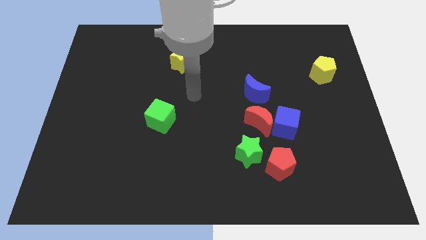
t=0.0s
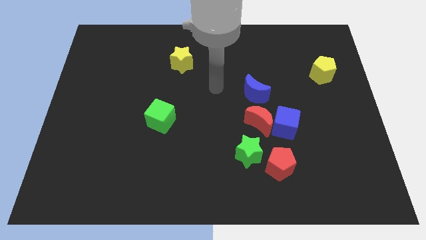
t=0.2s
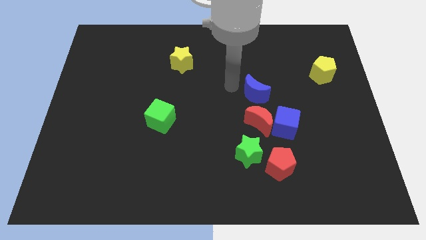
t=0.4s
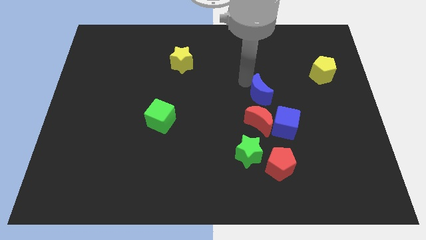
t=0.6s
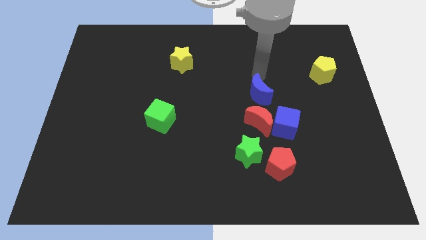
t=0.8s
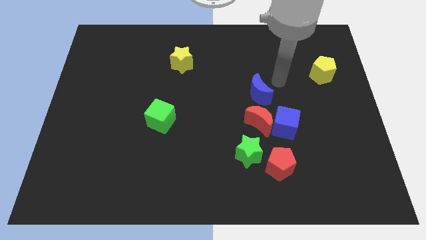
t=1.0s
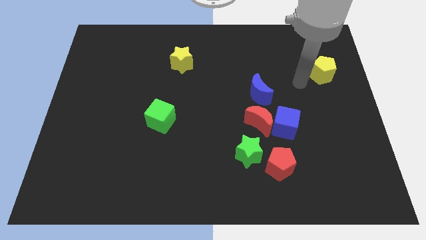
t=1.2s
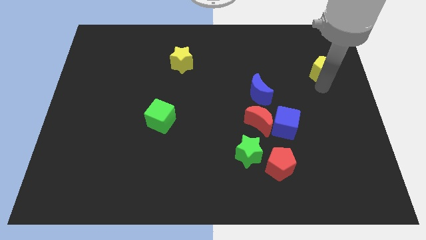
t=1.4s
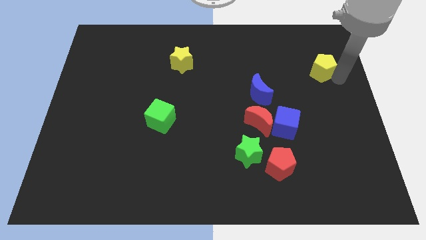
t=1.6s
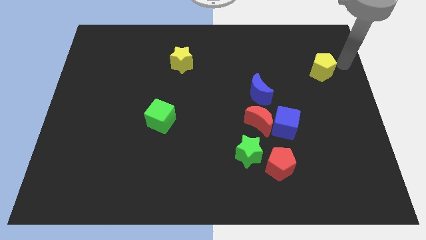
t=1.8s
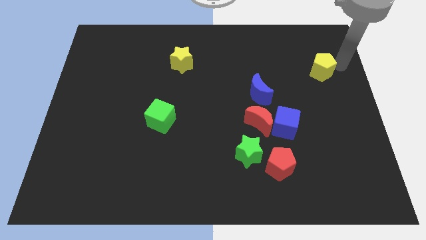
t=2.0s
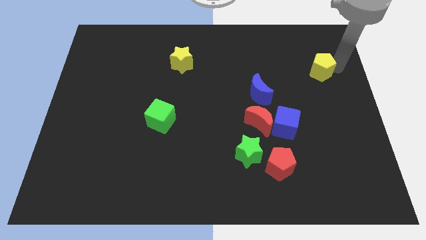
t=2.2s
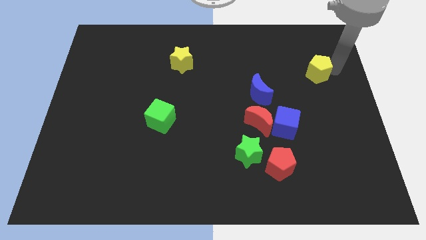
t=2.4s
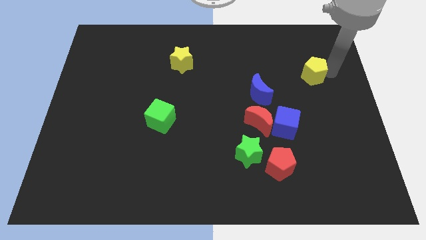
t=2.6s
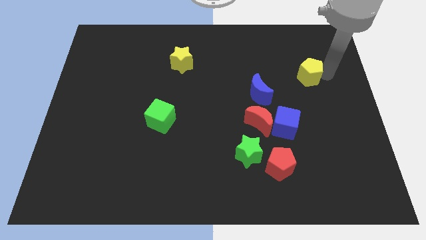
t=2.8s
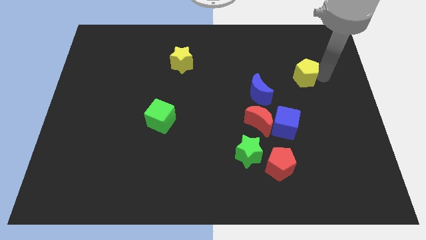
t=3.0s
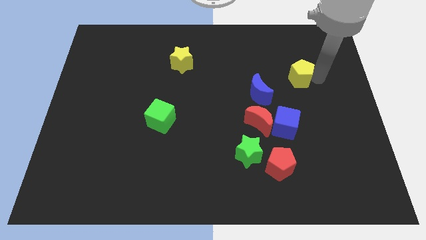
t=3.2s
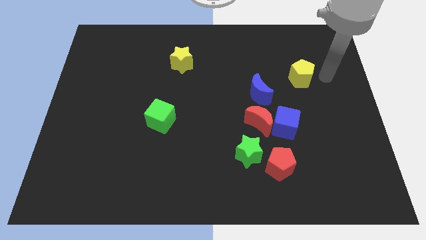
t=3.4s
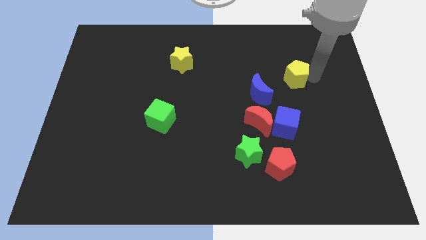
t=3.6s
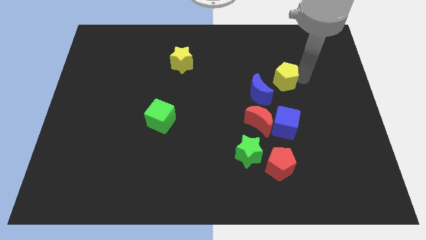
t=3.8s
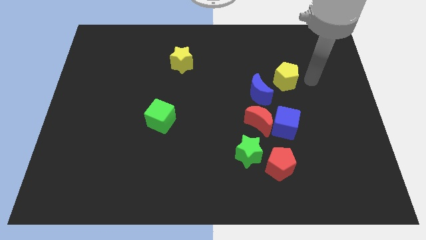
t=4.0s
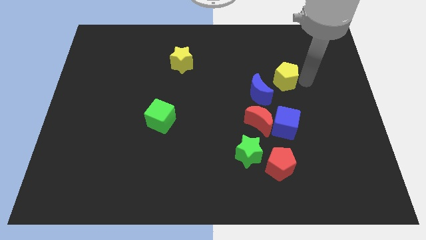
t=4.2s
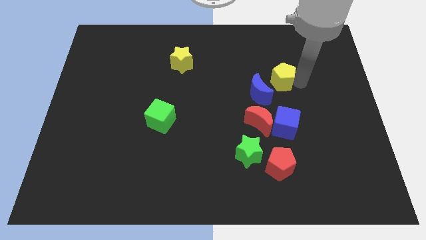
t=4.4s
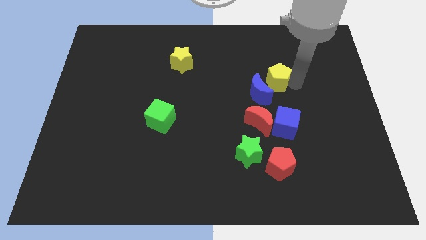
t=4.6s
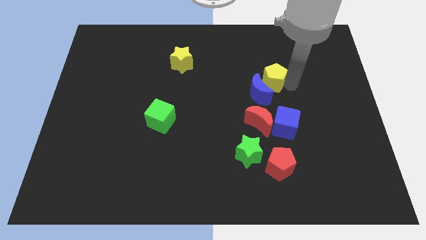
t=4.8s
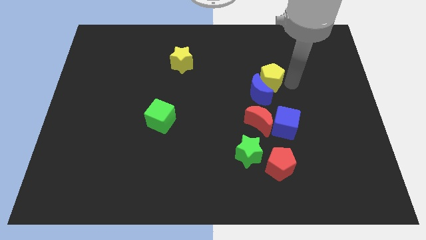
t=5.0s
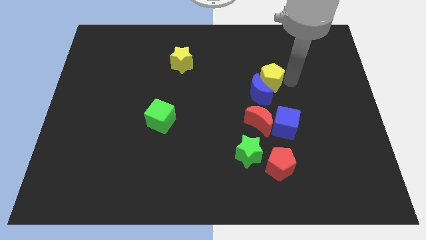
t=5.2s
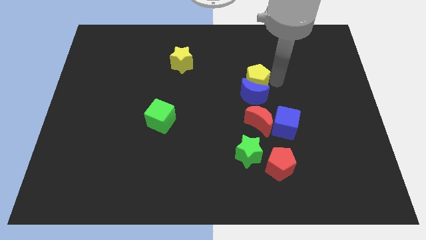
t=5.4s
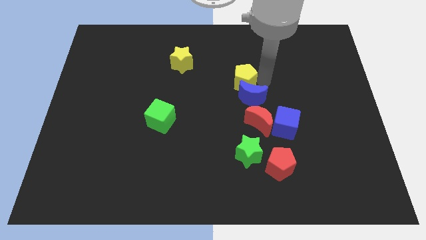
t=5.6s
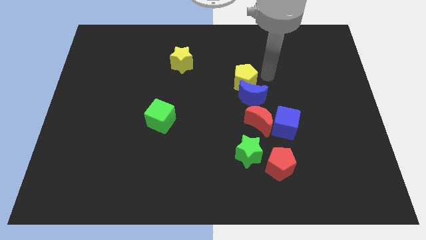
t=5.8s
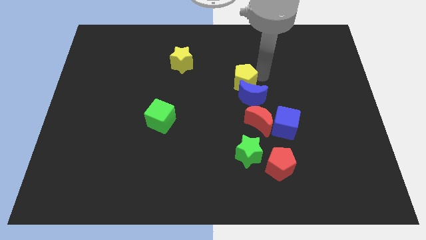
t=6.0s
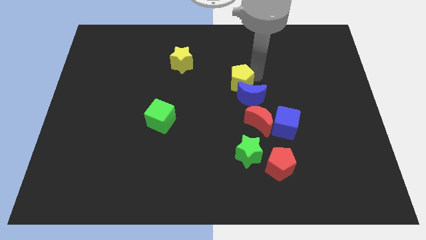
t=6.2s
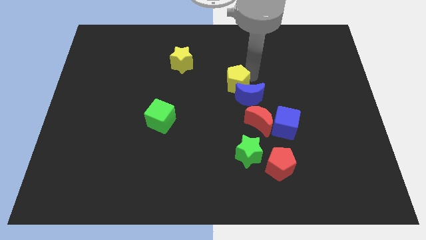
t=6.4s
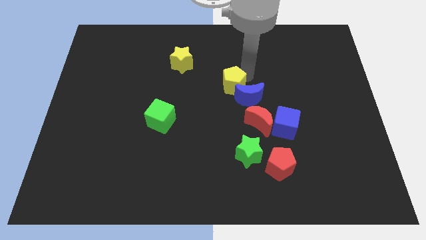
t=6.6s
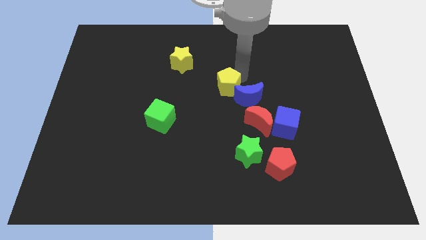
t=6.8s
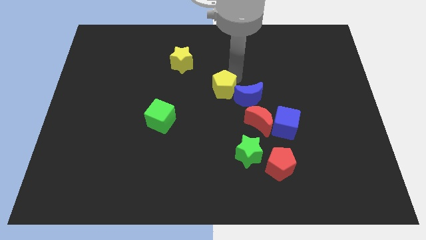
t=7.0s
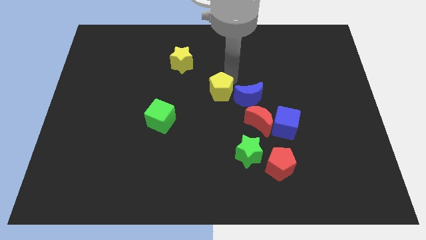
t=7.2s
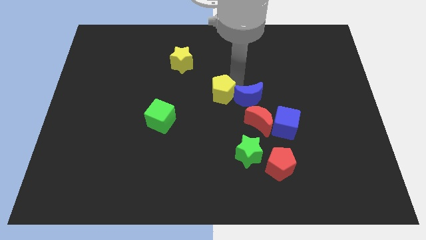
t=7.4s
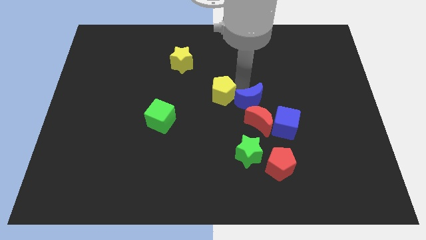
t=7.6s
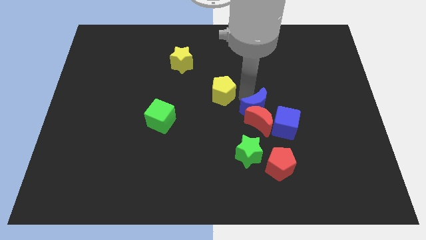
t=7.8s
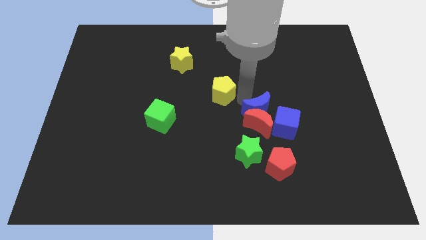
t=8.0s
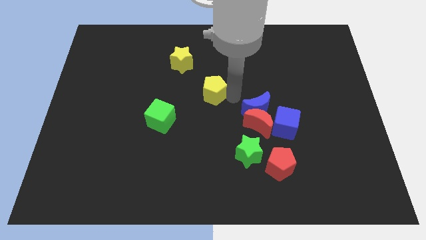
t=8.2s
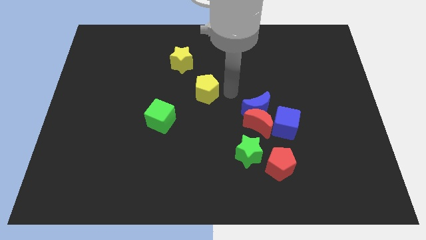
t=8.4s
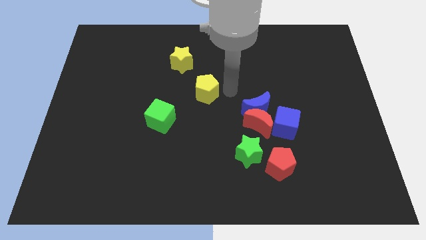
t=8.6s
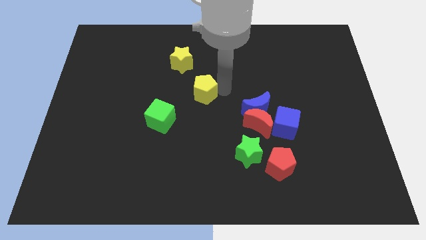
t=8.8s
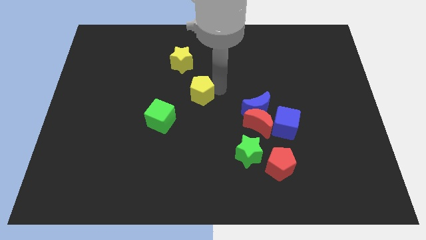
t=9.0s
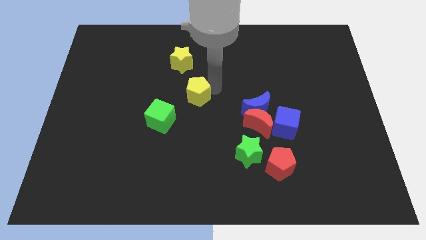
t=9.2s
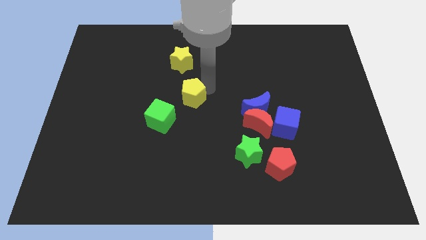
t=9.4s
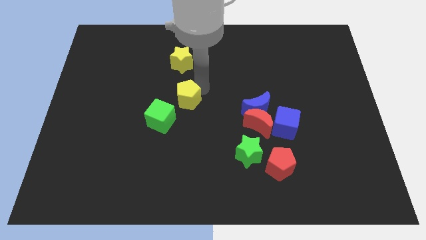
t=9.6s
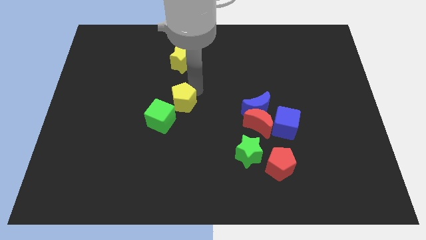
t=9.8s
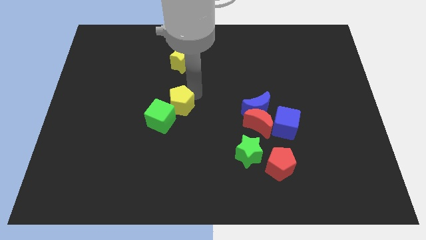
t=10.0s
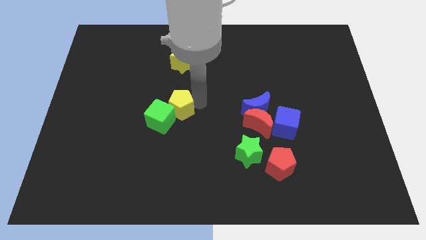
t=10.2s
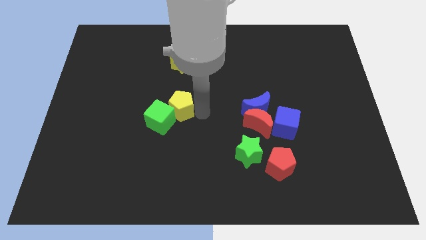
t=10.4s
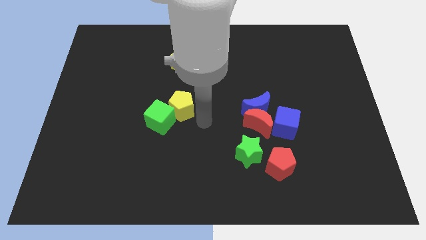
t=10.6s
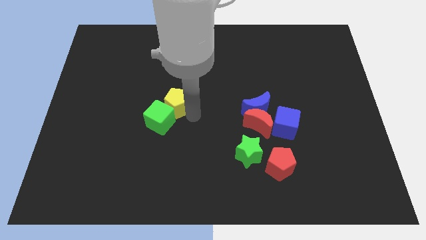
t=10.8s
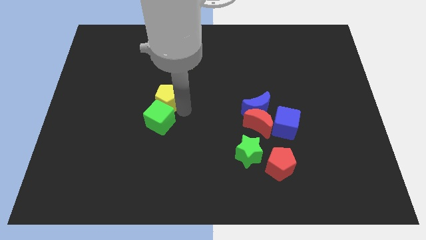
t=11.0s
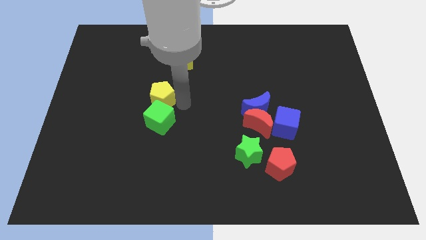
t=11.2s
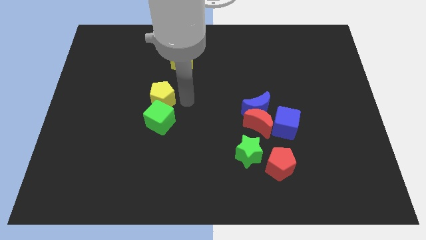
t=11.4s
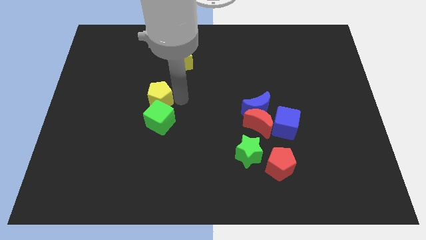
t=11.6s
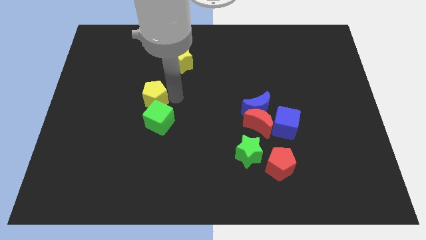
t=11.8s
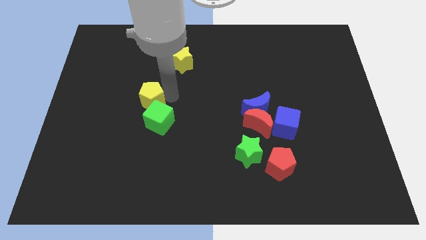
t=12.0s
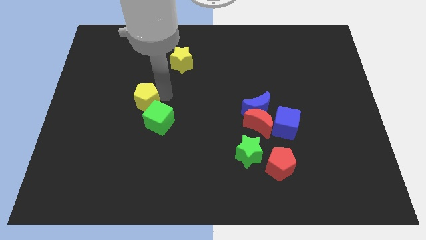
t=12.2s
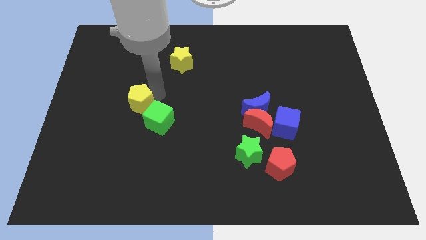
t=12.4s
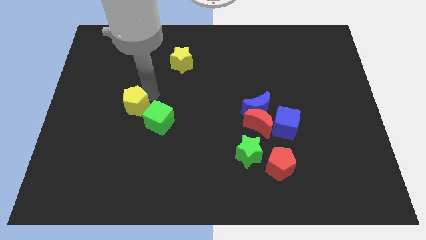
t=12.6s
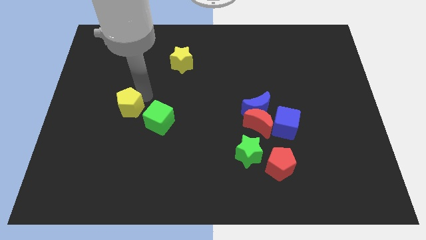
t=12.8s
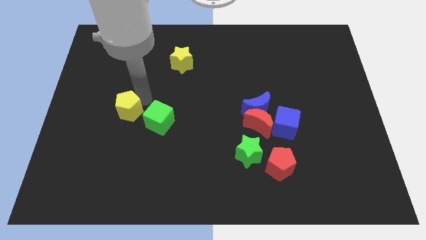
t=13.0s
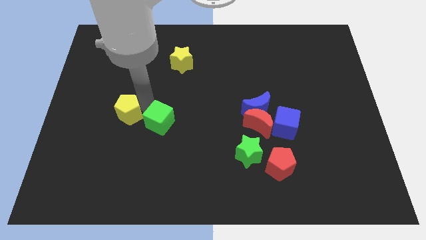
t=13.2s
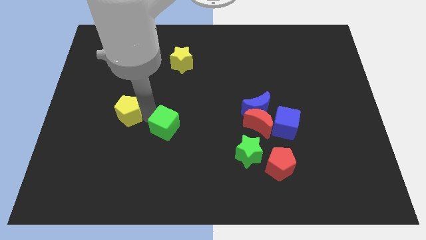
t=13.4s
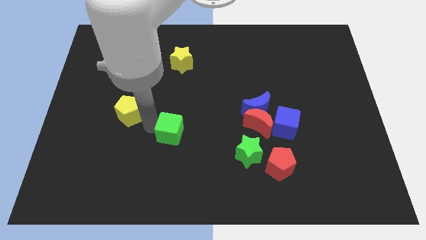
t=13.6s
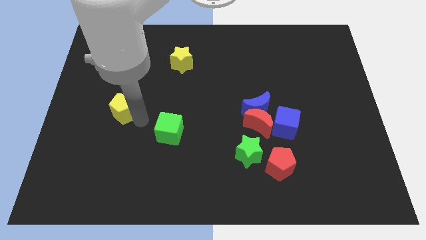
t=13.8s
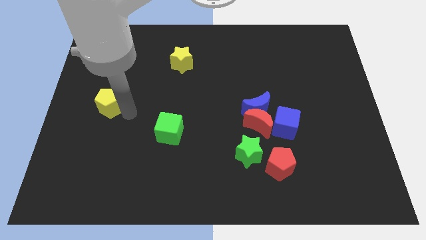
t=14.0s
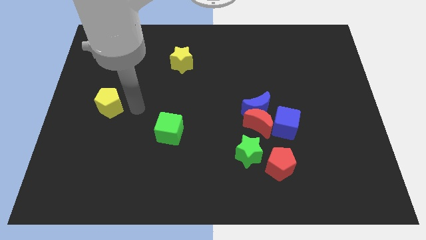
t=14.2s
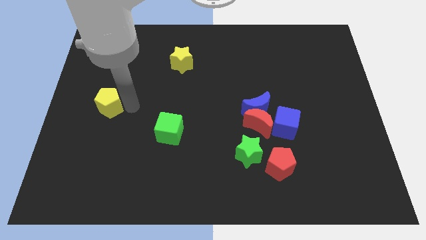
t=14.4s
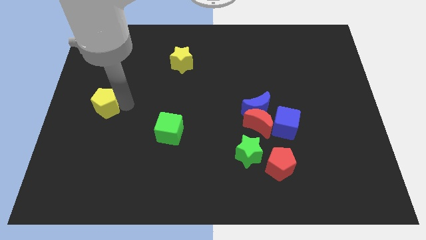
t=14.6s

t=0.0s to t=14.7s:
put the yellow pentagon to the center left
